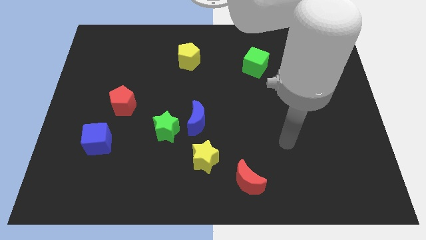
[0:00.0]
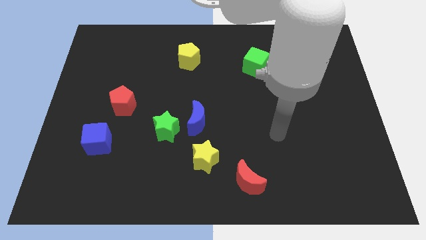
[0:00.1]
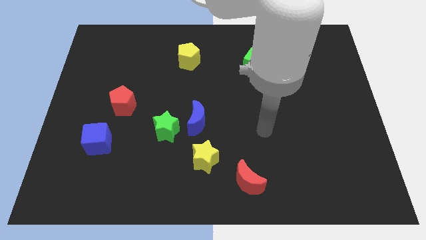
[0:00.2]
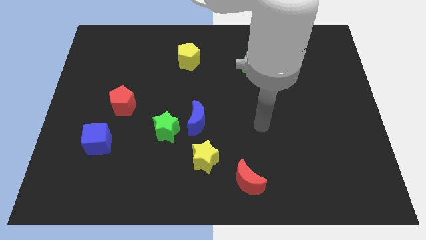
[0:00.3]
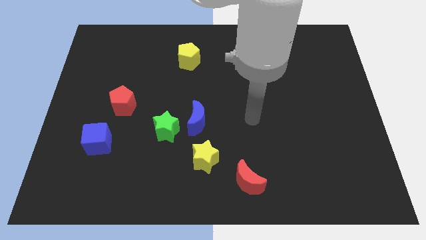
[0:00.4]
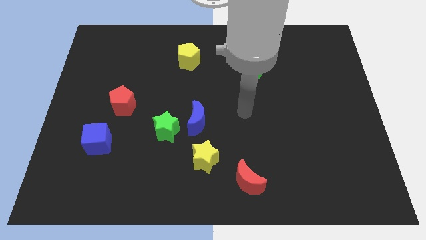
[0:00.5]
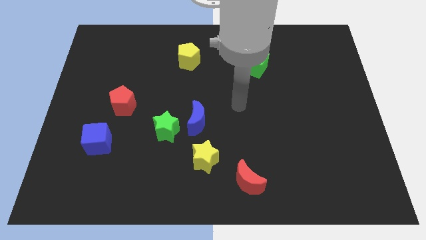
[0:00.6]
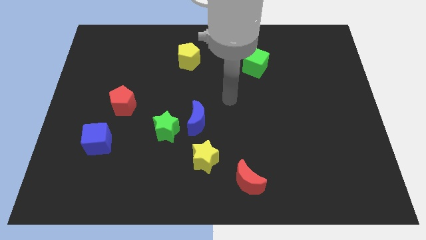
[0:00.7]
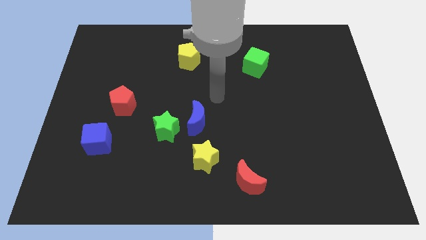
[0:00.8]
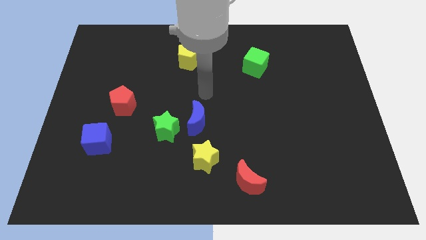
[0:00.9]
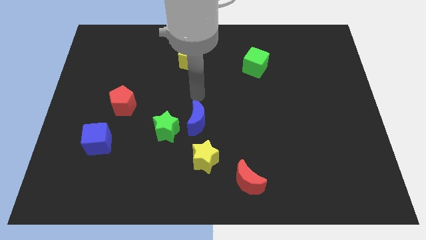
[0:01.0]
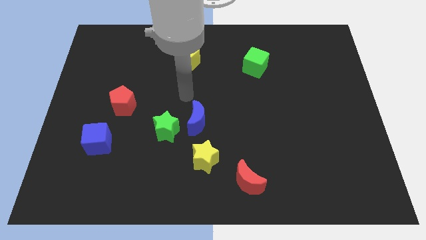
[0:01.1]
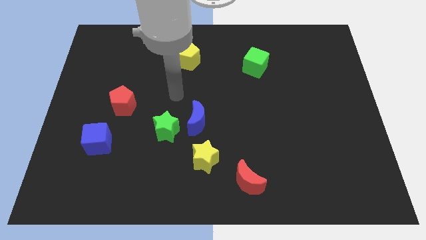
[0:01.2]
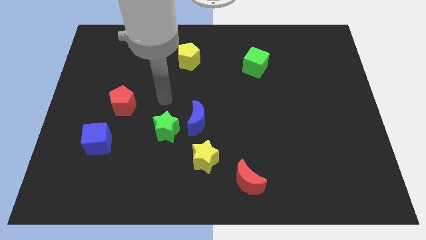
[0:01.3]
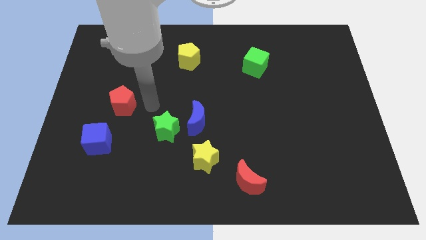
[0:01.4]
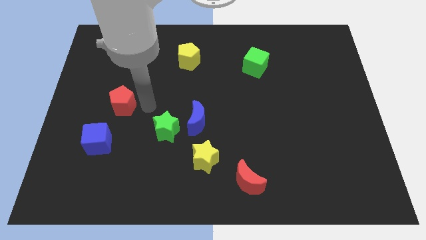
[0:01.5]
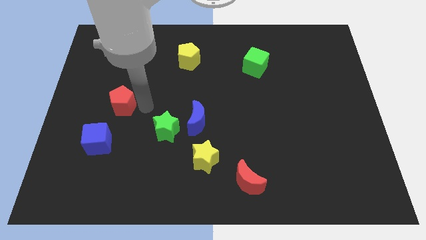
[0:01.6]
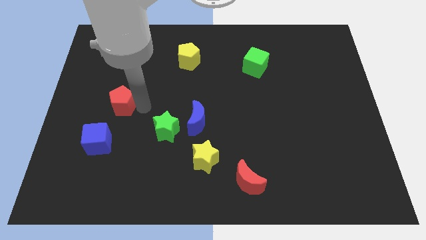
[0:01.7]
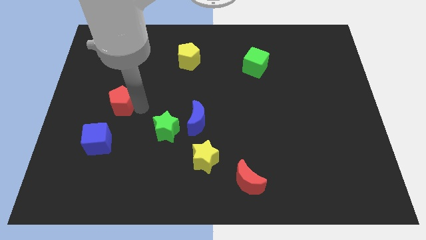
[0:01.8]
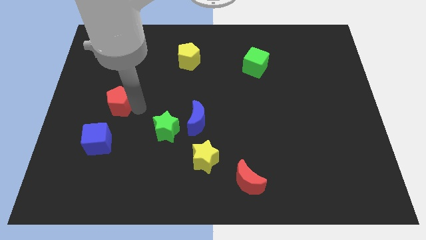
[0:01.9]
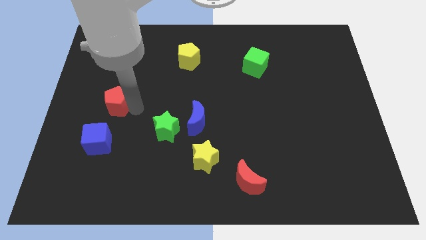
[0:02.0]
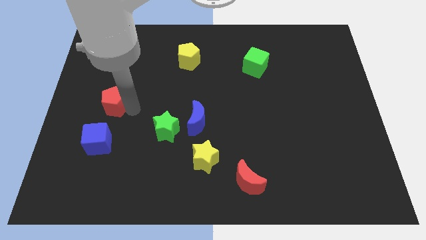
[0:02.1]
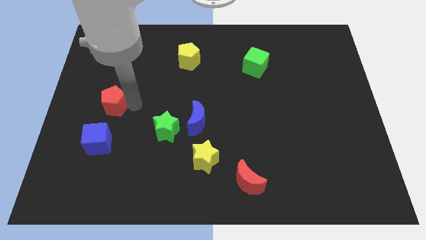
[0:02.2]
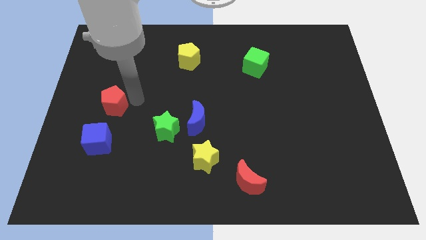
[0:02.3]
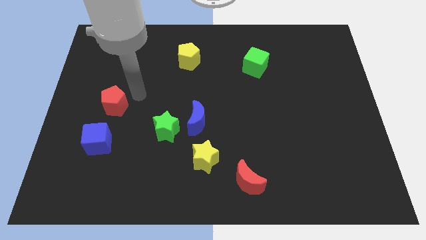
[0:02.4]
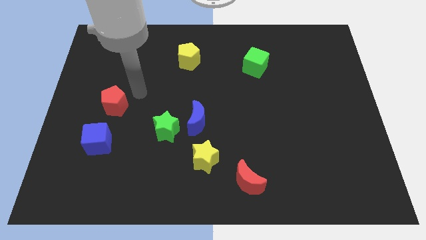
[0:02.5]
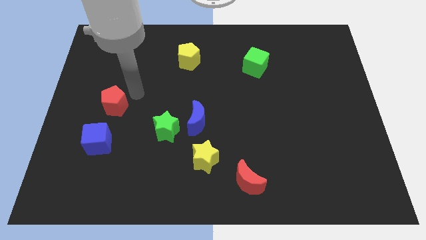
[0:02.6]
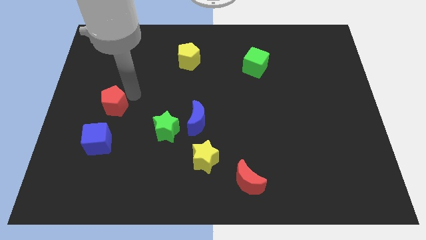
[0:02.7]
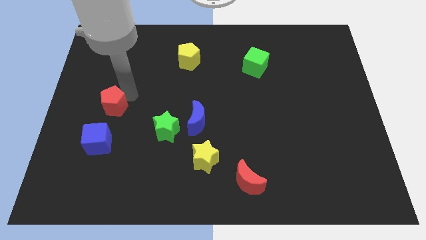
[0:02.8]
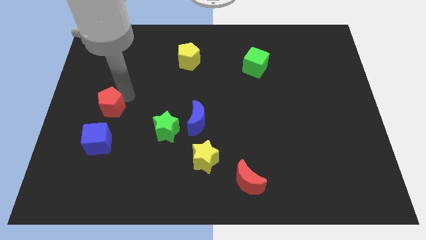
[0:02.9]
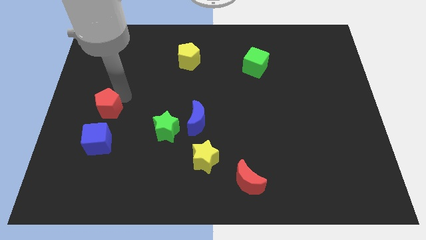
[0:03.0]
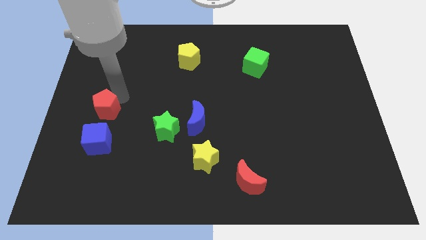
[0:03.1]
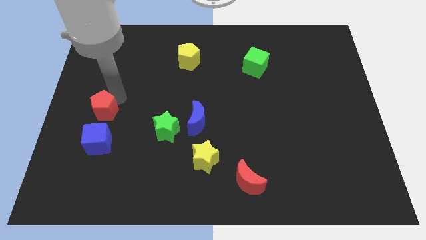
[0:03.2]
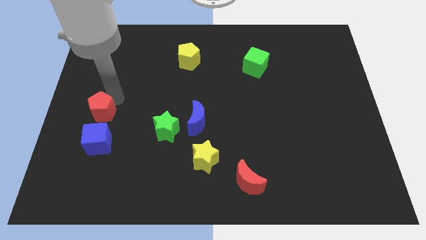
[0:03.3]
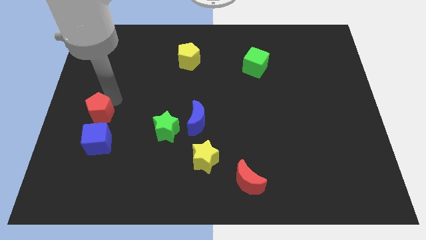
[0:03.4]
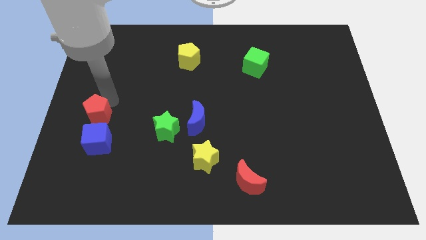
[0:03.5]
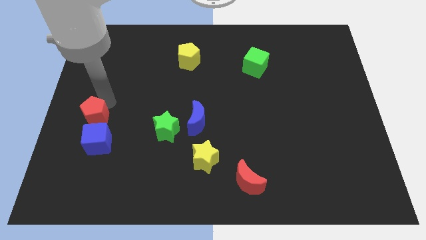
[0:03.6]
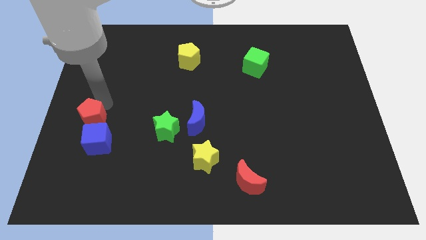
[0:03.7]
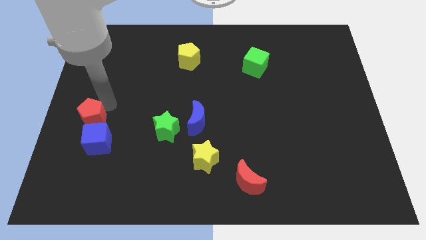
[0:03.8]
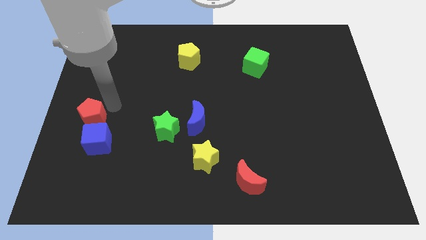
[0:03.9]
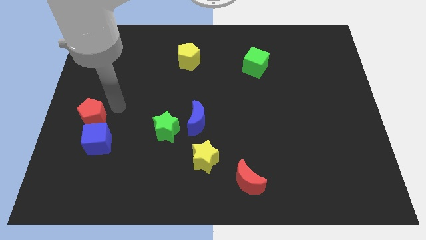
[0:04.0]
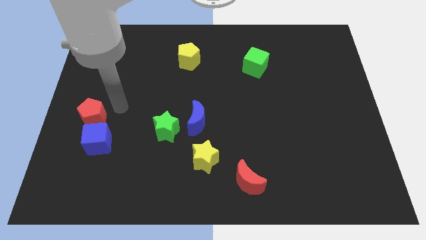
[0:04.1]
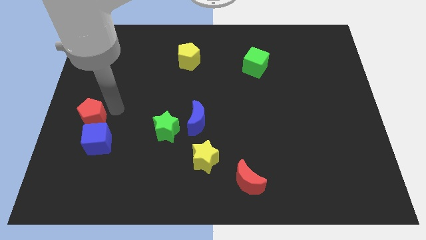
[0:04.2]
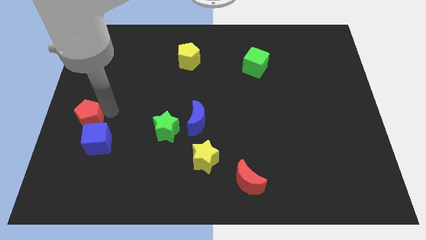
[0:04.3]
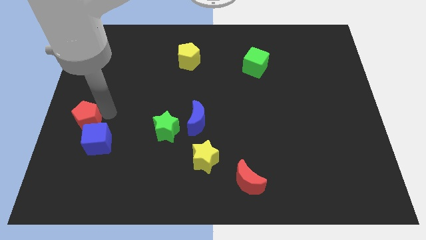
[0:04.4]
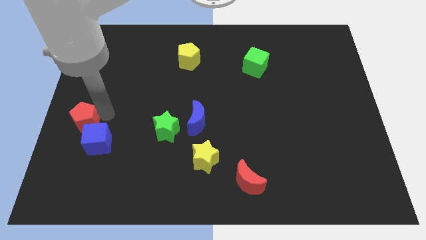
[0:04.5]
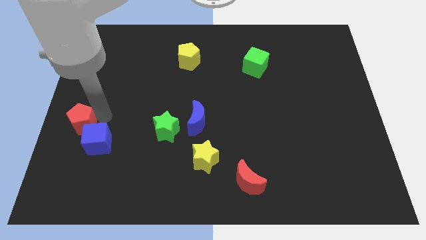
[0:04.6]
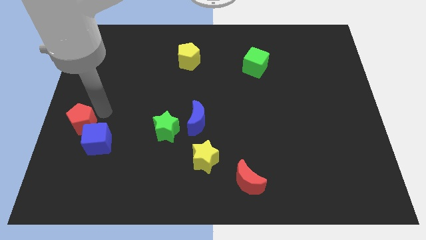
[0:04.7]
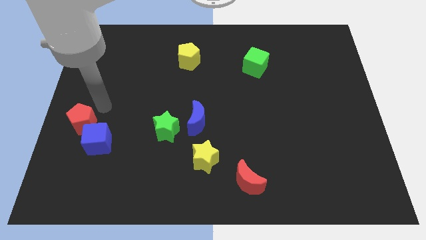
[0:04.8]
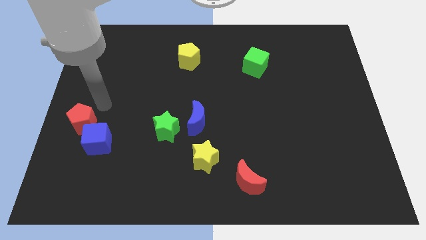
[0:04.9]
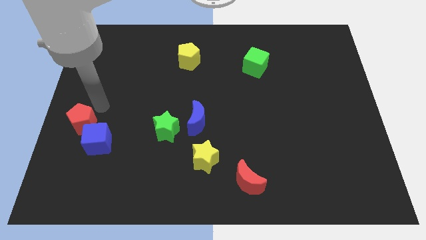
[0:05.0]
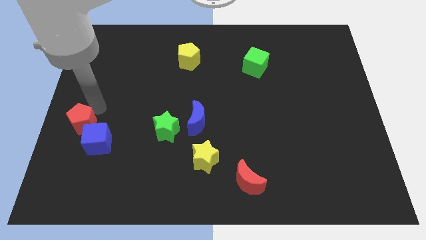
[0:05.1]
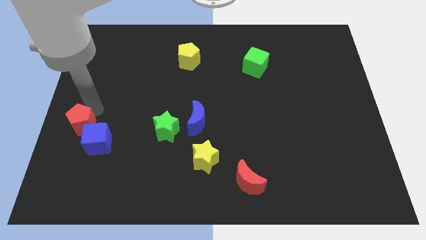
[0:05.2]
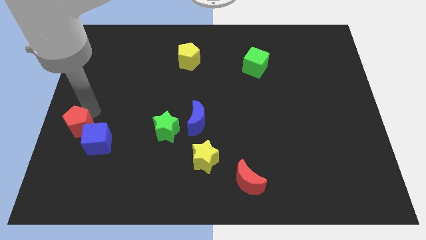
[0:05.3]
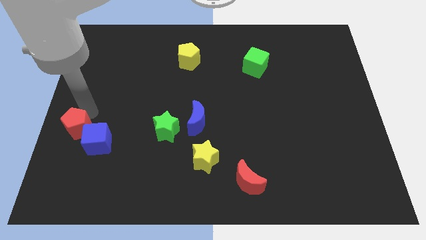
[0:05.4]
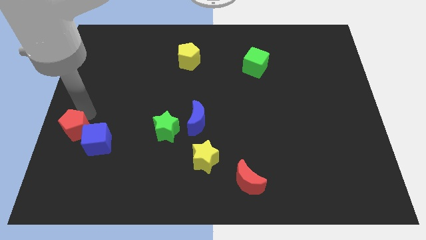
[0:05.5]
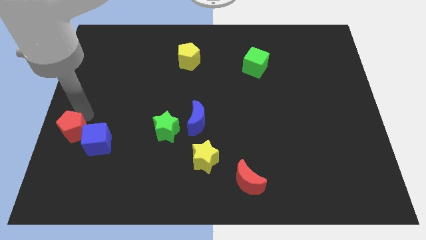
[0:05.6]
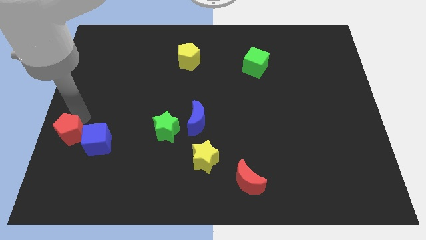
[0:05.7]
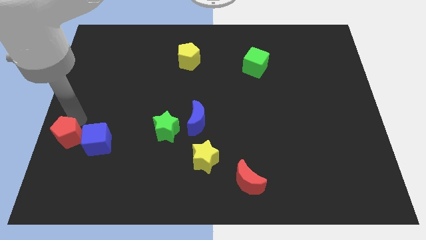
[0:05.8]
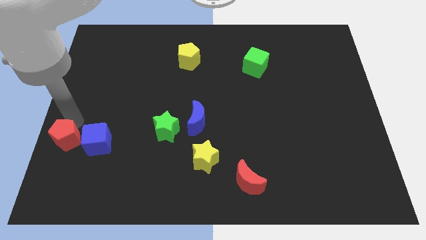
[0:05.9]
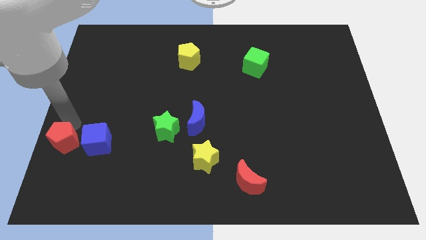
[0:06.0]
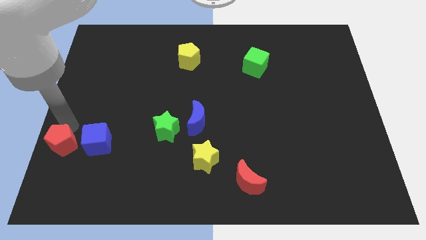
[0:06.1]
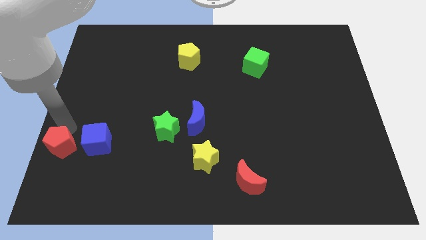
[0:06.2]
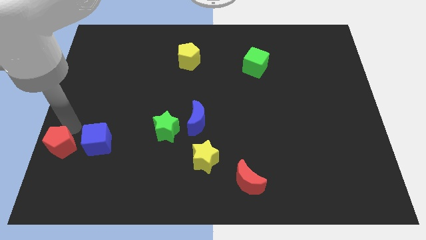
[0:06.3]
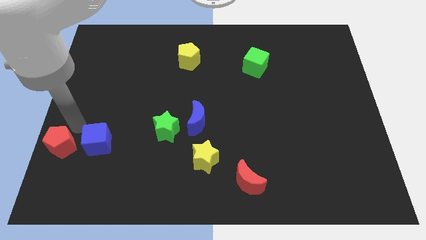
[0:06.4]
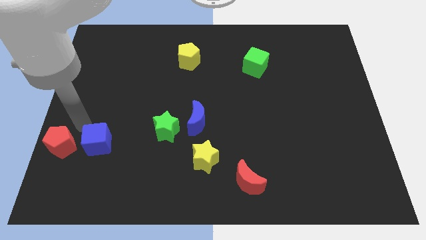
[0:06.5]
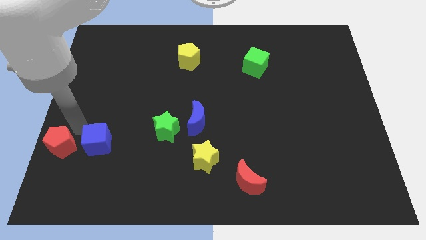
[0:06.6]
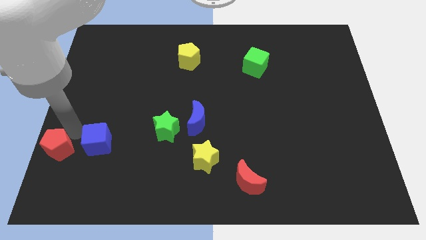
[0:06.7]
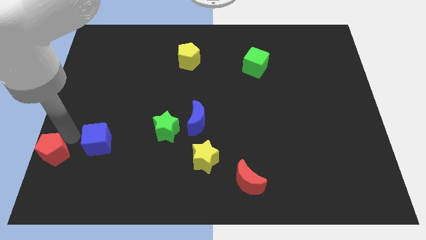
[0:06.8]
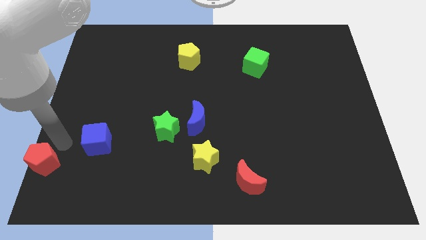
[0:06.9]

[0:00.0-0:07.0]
push the red pentagon to the bottom left of the board
